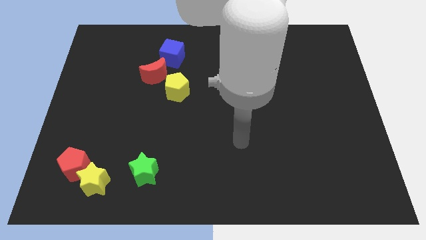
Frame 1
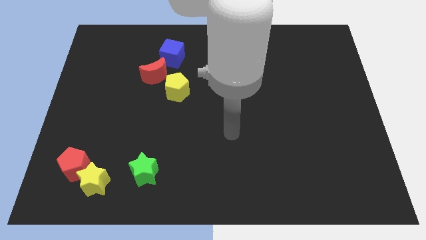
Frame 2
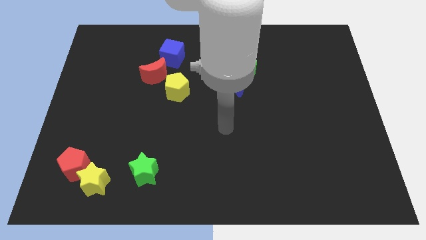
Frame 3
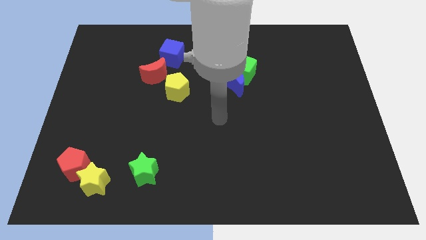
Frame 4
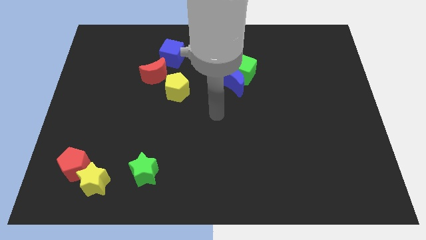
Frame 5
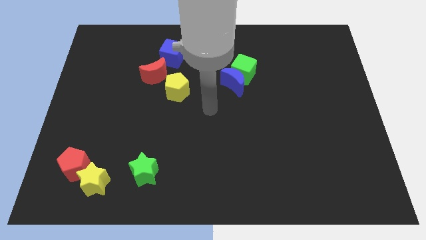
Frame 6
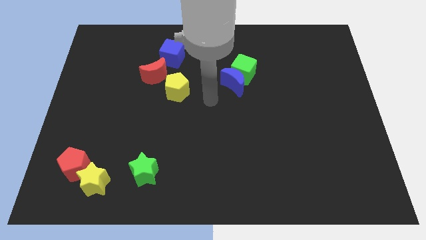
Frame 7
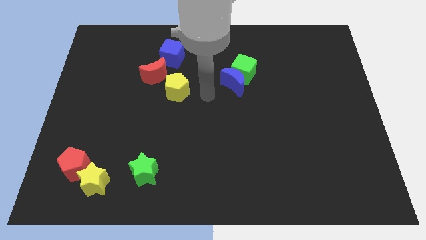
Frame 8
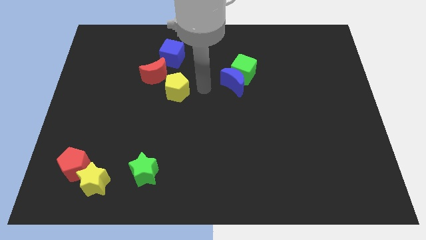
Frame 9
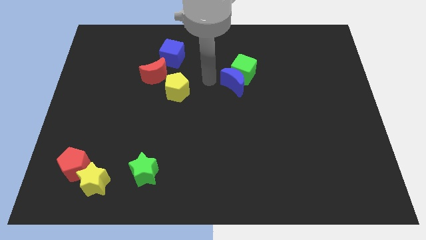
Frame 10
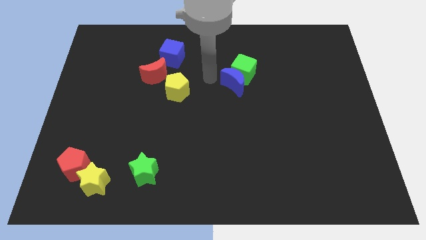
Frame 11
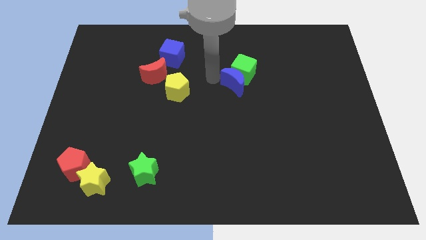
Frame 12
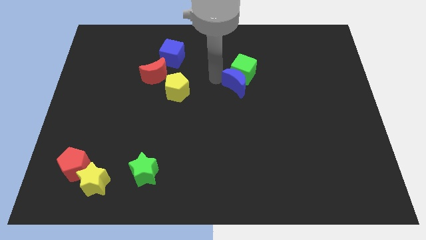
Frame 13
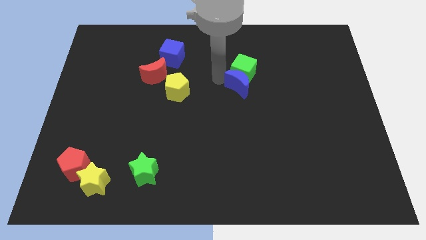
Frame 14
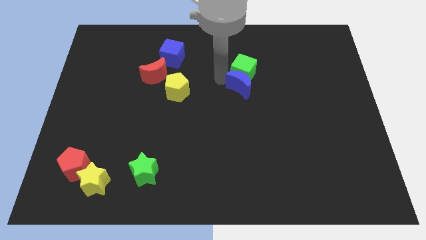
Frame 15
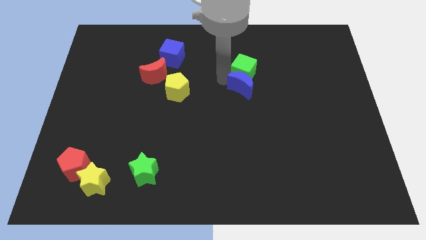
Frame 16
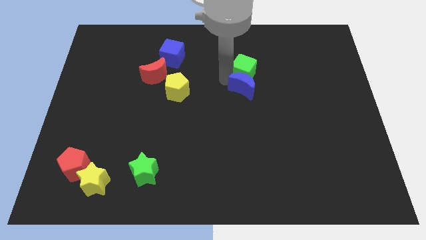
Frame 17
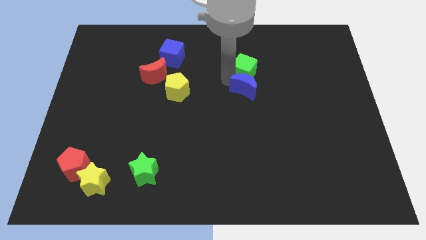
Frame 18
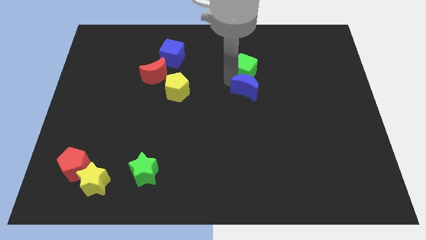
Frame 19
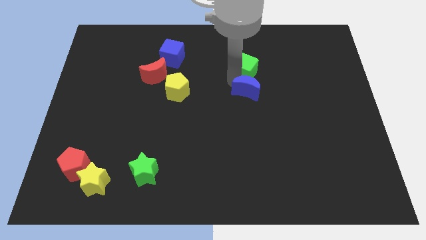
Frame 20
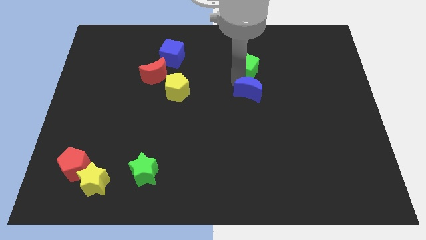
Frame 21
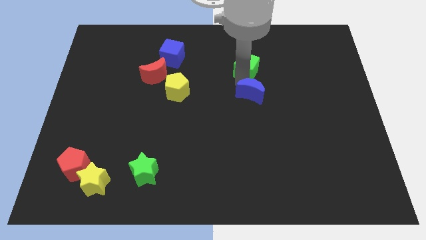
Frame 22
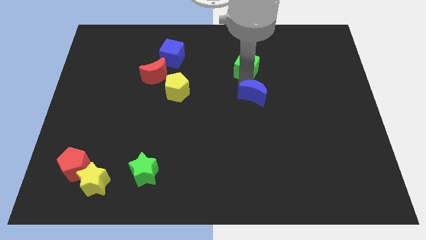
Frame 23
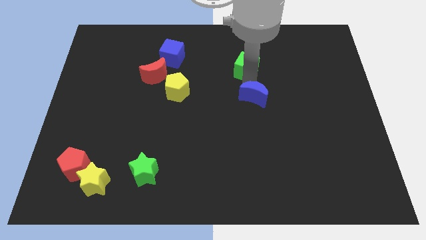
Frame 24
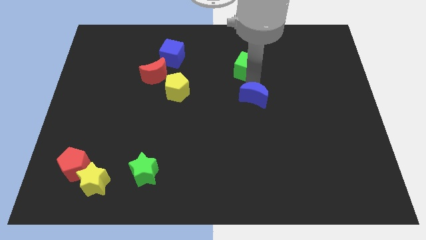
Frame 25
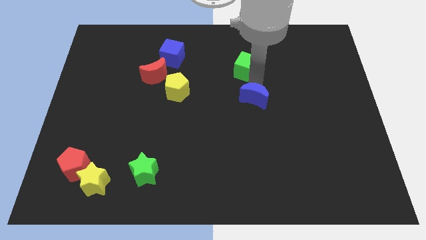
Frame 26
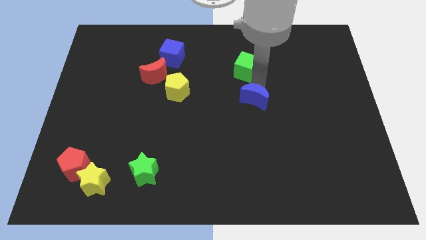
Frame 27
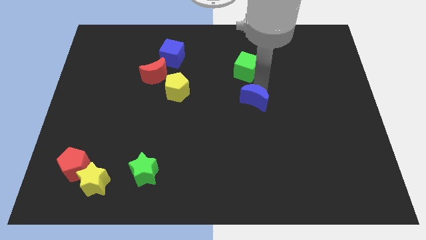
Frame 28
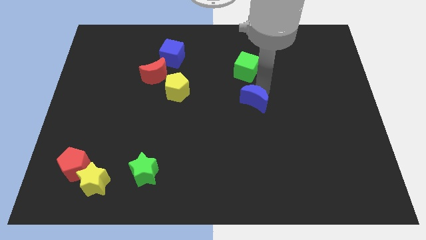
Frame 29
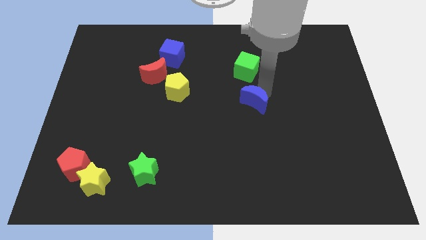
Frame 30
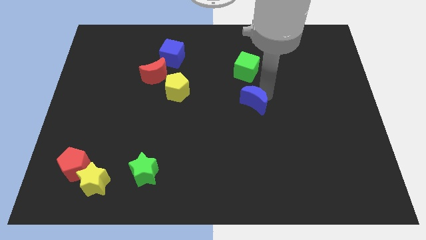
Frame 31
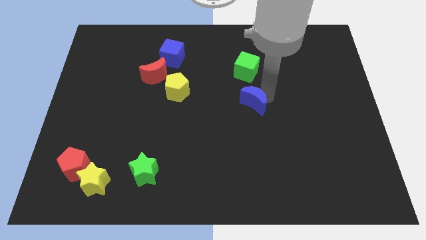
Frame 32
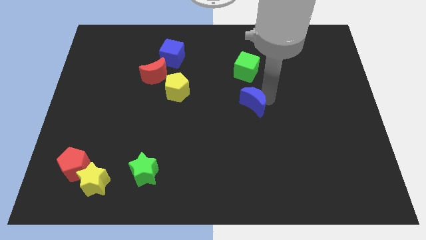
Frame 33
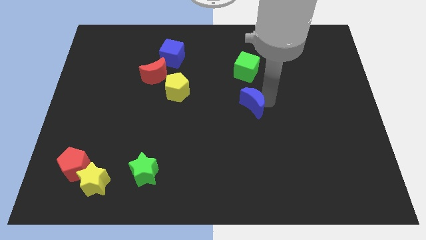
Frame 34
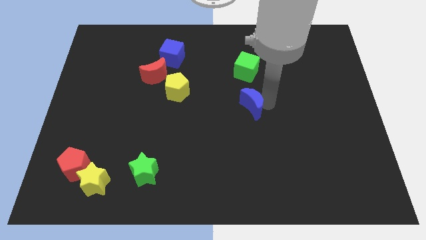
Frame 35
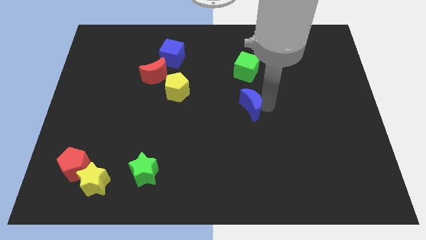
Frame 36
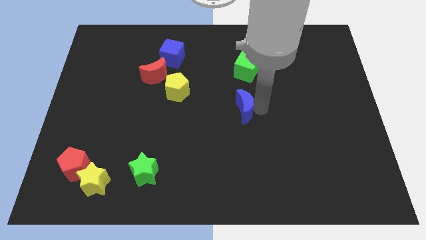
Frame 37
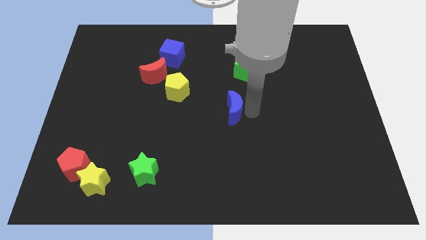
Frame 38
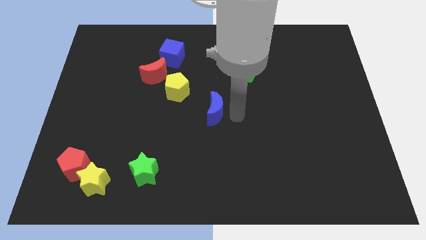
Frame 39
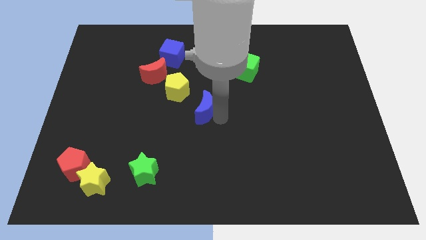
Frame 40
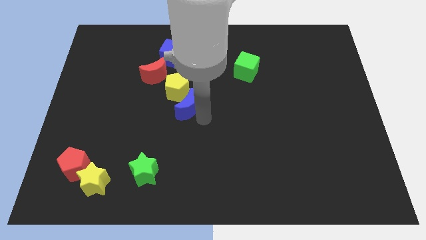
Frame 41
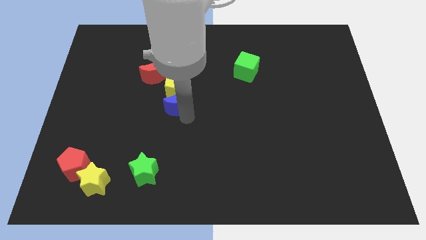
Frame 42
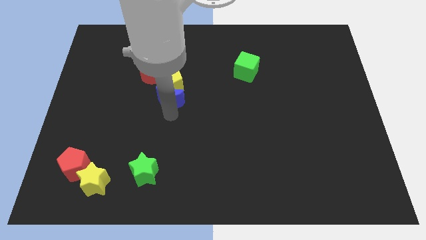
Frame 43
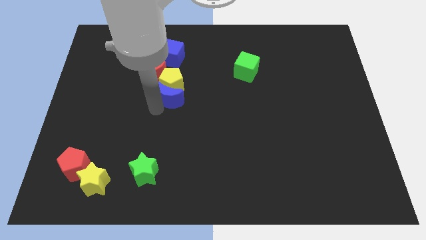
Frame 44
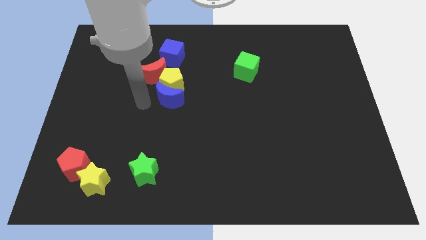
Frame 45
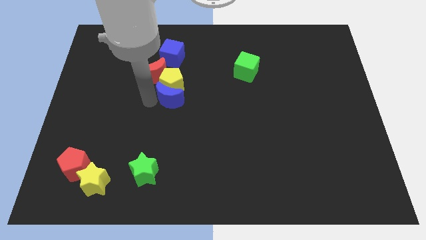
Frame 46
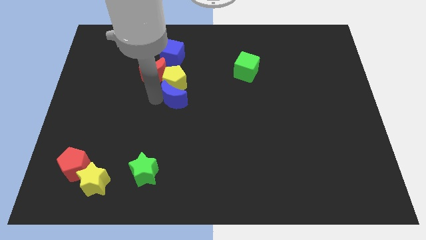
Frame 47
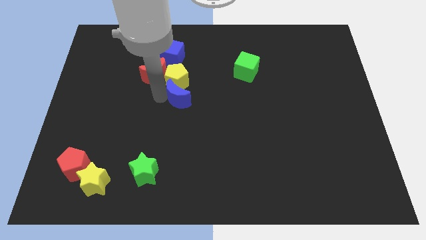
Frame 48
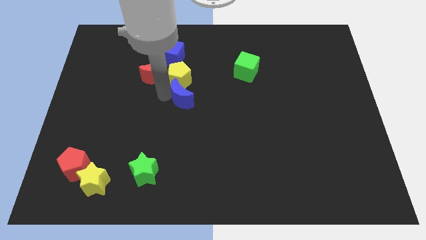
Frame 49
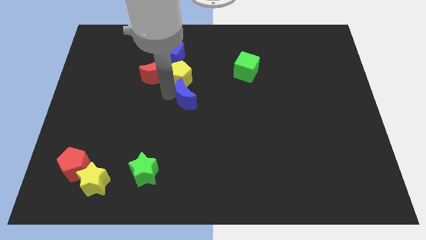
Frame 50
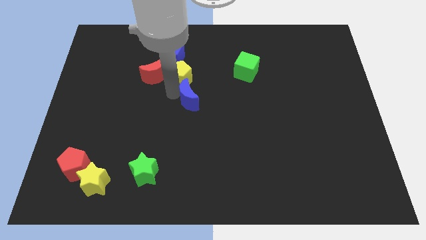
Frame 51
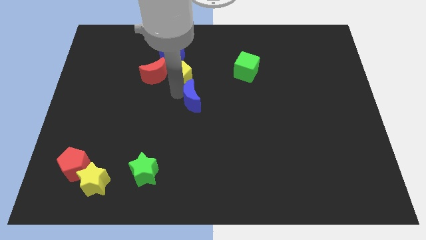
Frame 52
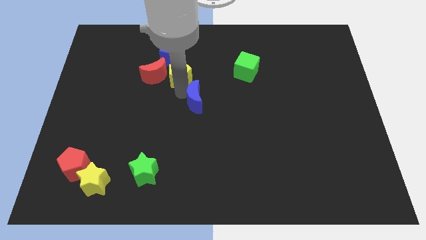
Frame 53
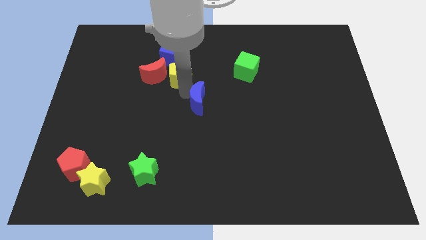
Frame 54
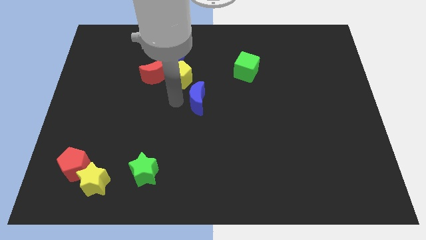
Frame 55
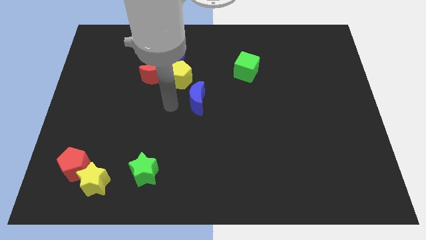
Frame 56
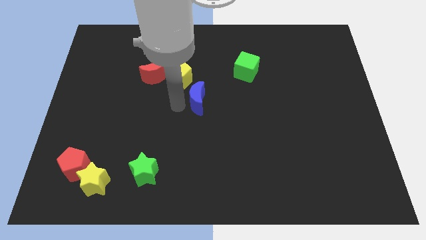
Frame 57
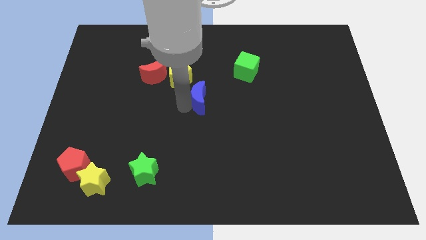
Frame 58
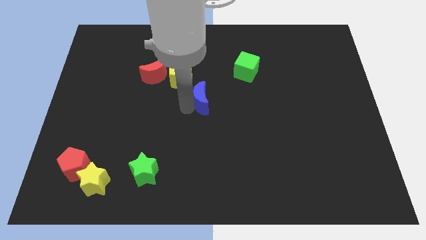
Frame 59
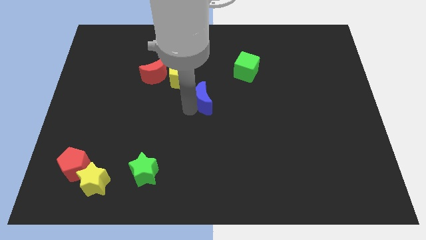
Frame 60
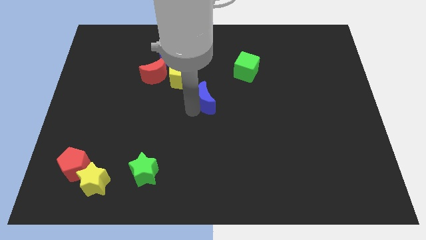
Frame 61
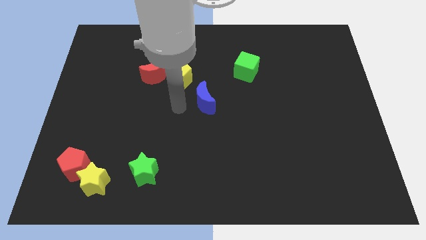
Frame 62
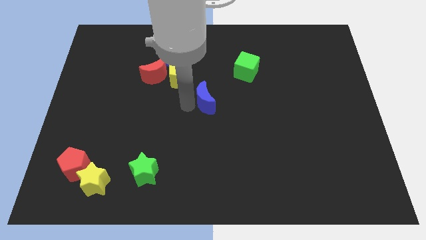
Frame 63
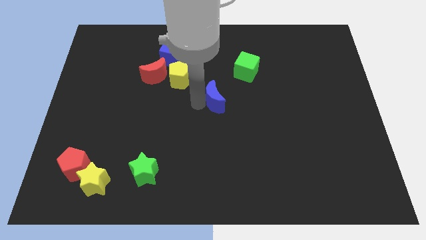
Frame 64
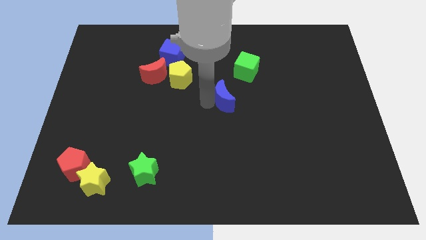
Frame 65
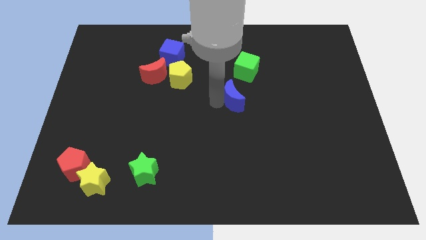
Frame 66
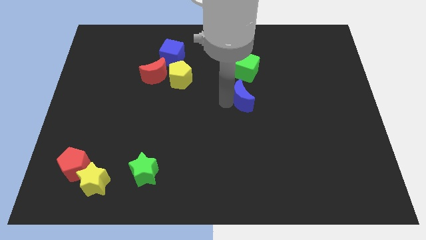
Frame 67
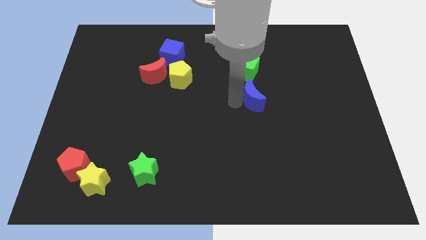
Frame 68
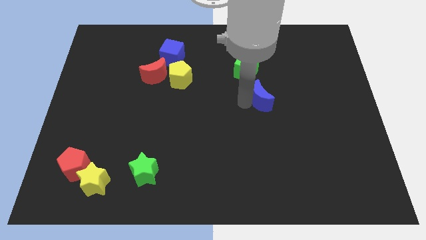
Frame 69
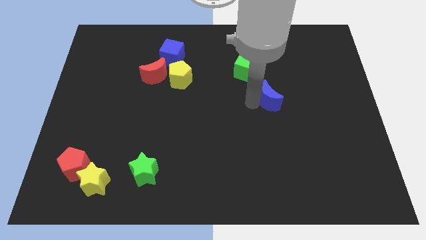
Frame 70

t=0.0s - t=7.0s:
slightly slide the blue moon right

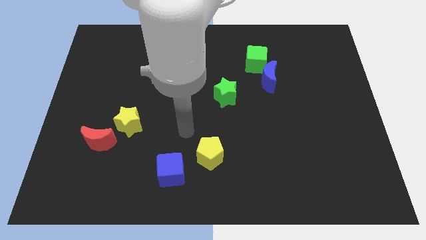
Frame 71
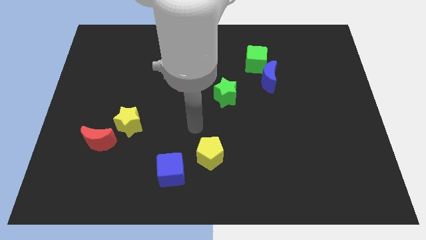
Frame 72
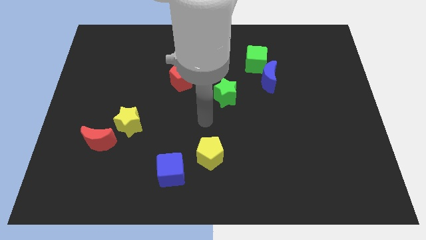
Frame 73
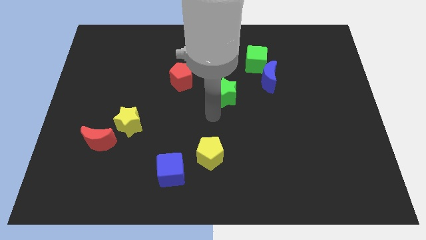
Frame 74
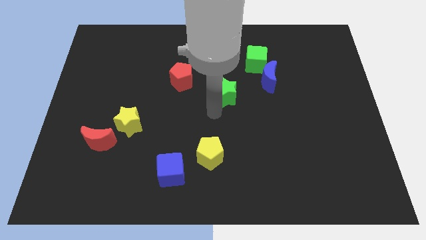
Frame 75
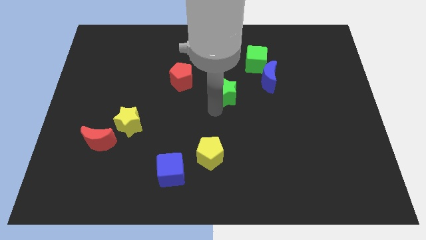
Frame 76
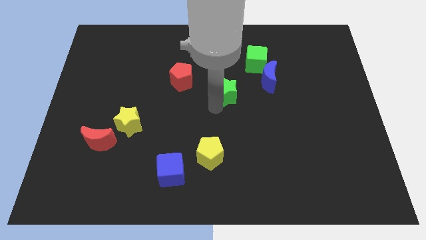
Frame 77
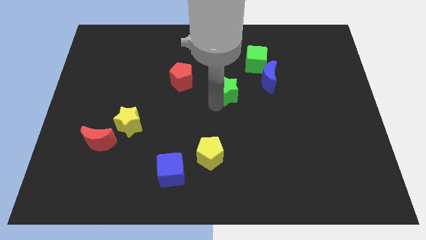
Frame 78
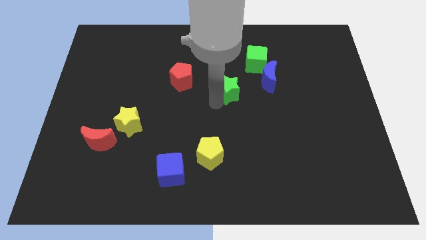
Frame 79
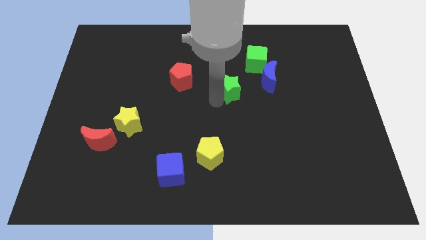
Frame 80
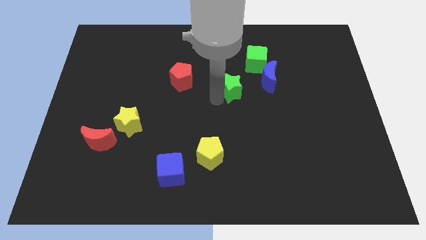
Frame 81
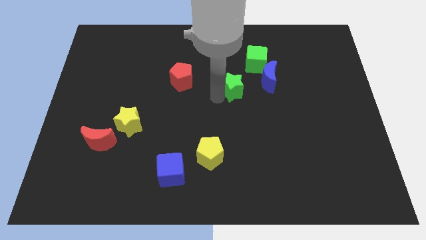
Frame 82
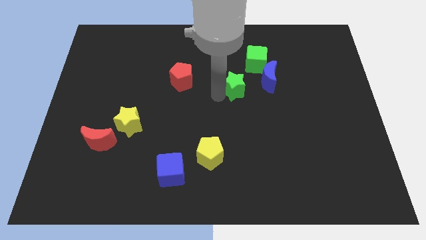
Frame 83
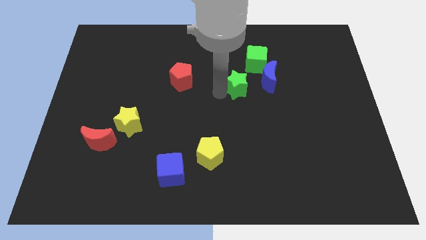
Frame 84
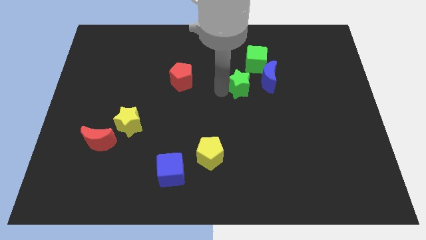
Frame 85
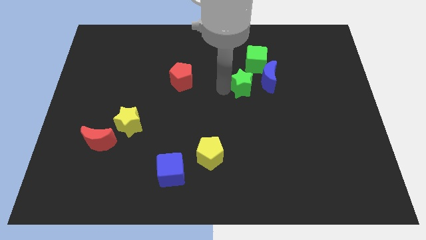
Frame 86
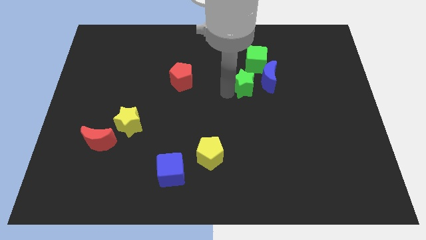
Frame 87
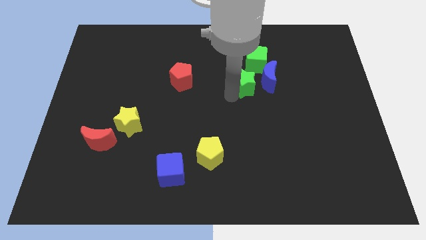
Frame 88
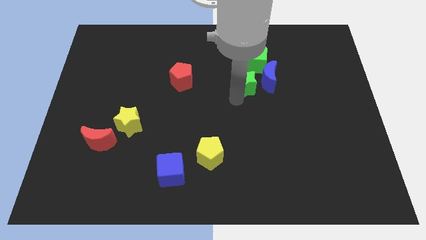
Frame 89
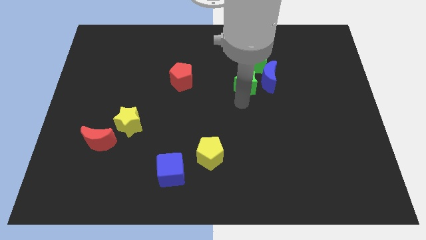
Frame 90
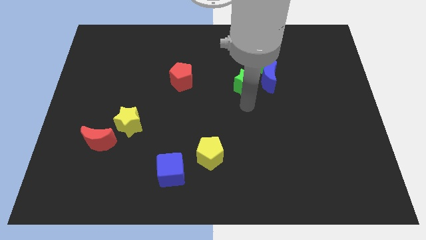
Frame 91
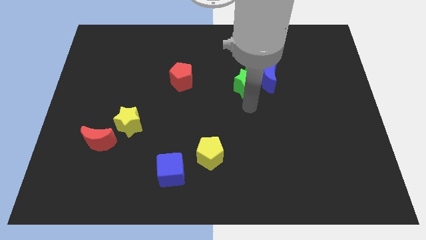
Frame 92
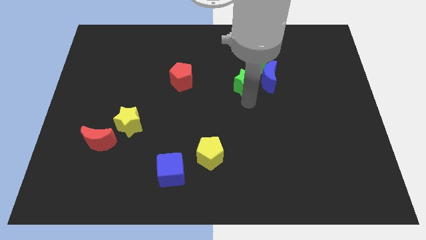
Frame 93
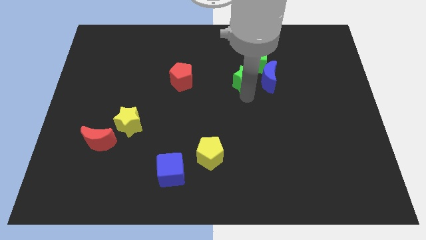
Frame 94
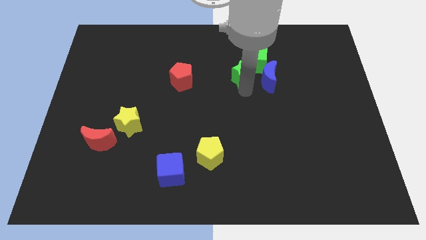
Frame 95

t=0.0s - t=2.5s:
move the green star slightly up and to the right diagonally
